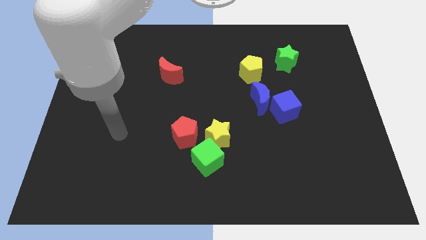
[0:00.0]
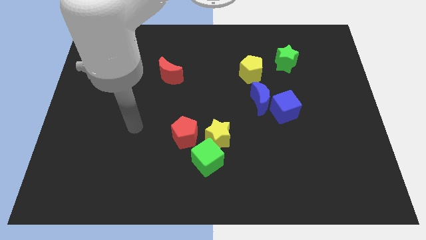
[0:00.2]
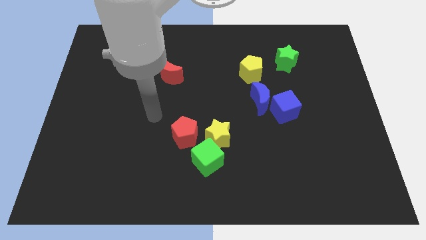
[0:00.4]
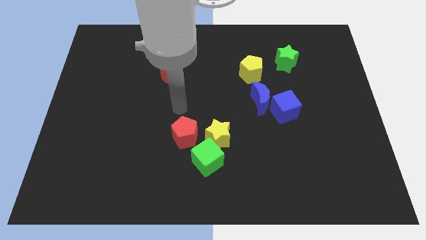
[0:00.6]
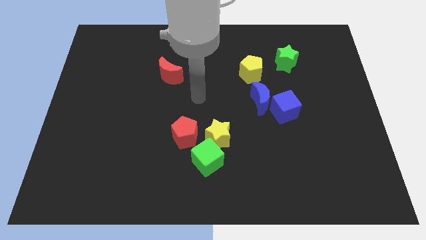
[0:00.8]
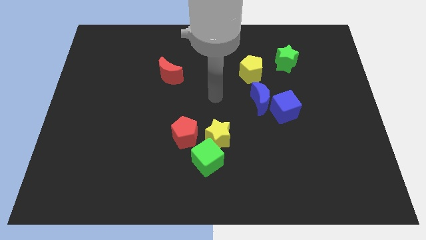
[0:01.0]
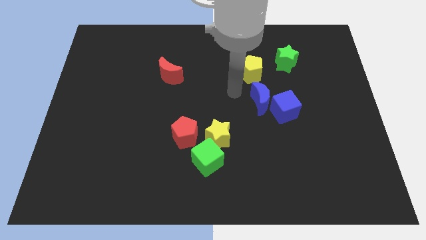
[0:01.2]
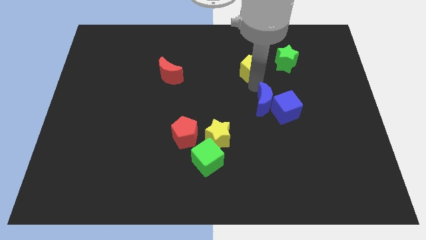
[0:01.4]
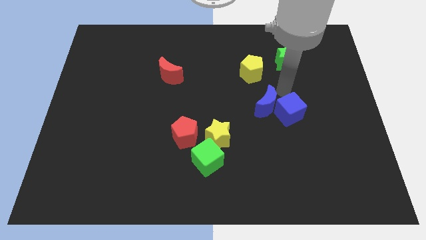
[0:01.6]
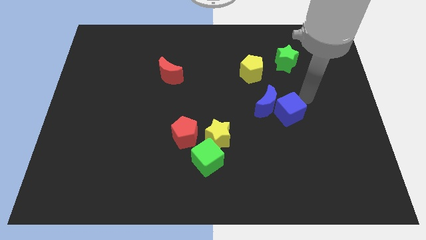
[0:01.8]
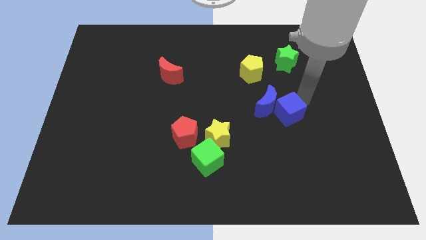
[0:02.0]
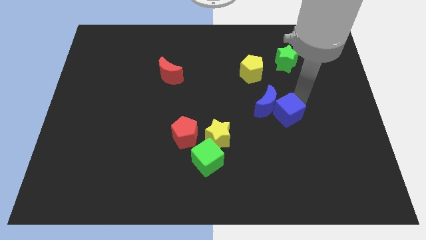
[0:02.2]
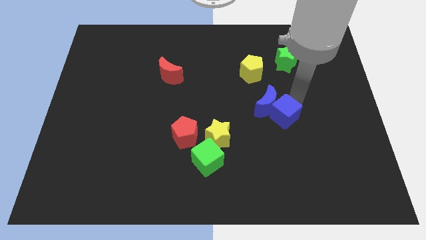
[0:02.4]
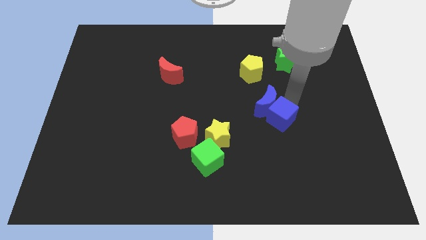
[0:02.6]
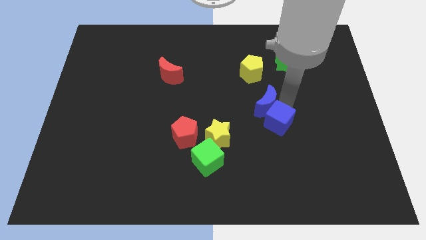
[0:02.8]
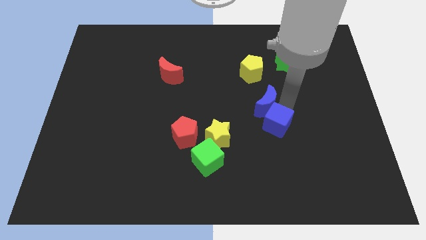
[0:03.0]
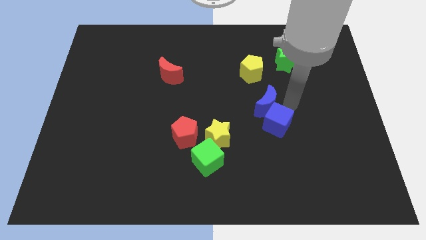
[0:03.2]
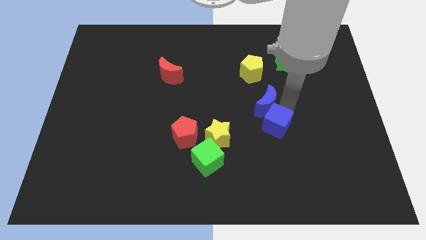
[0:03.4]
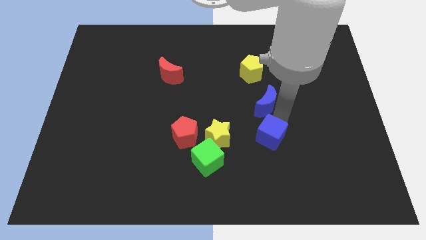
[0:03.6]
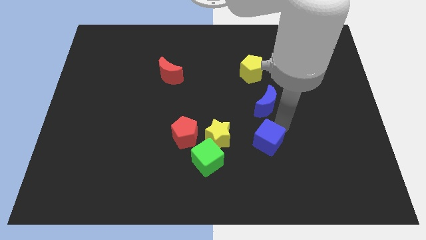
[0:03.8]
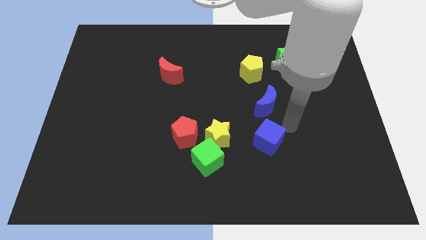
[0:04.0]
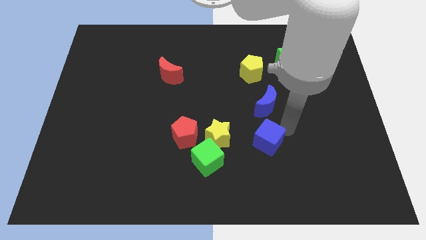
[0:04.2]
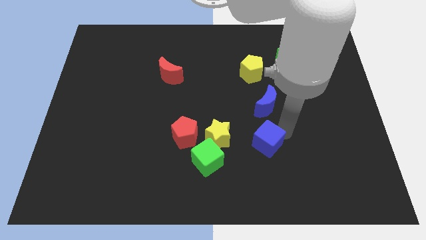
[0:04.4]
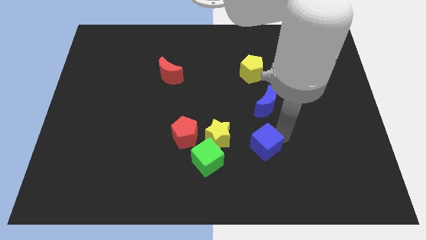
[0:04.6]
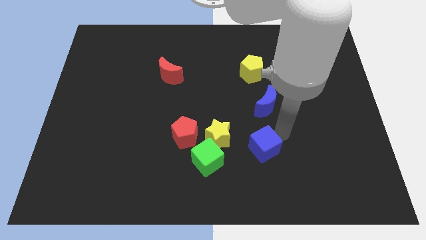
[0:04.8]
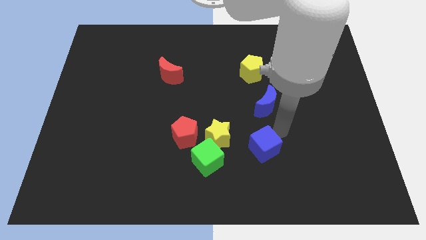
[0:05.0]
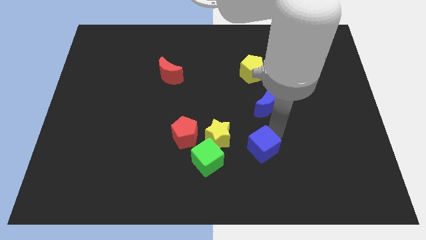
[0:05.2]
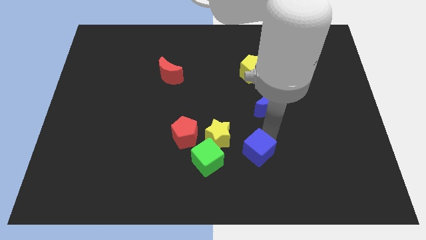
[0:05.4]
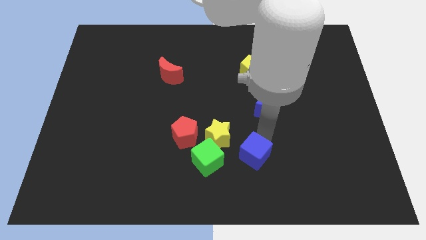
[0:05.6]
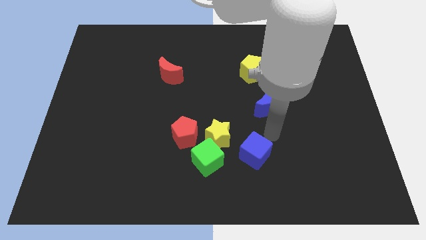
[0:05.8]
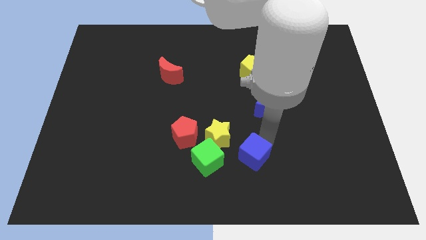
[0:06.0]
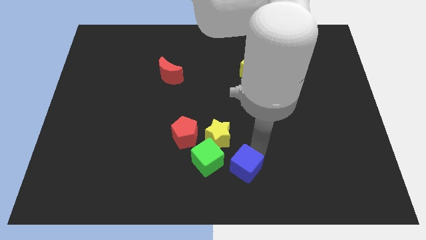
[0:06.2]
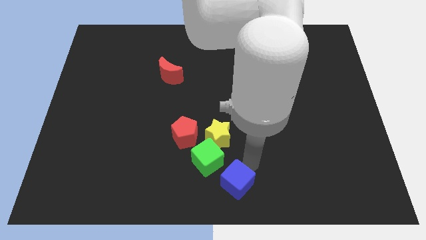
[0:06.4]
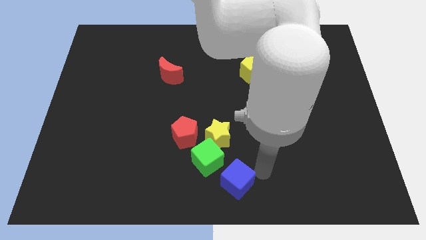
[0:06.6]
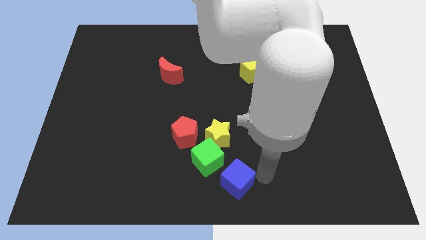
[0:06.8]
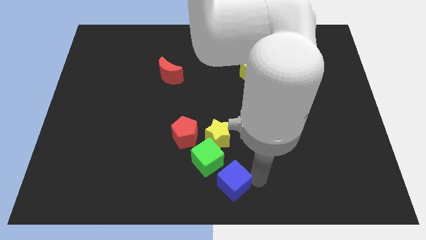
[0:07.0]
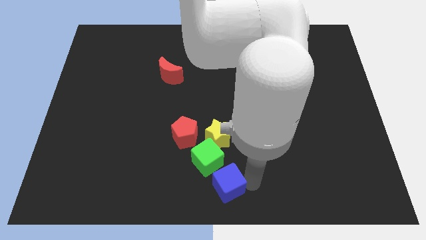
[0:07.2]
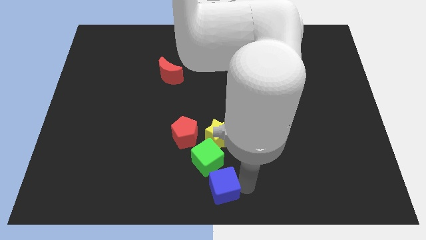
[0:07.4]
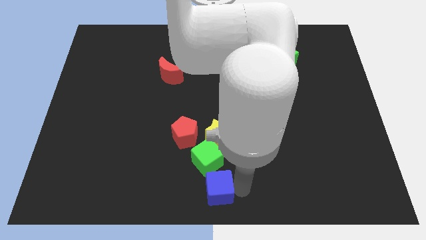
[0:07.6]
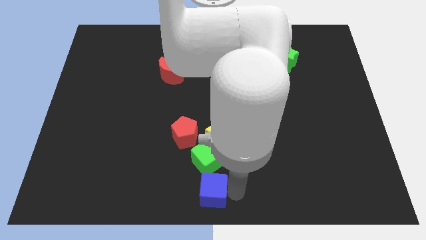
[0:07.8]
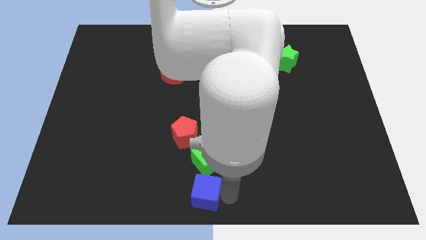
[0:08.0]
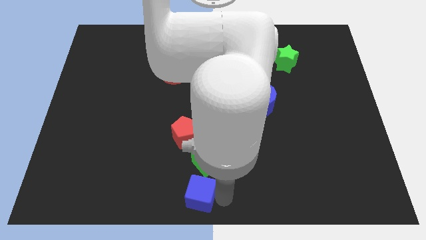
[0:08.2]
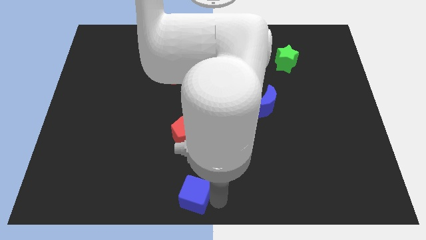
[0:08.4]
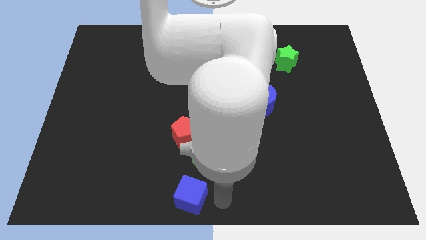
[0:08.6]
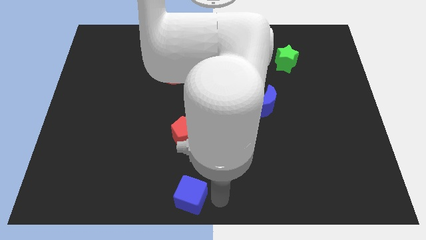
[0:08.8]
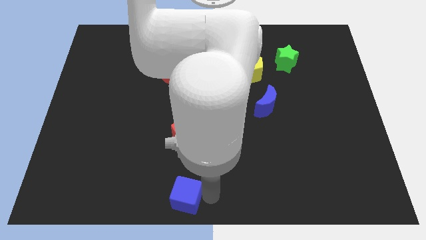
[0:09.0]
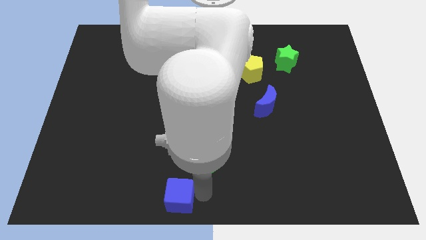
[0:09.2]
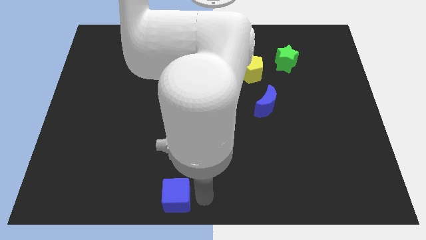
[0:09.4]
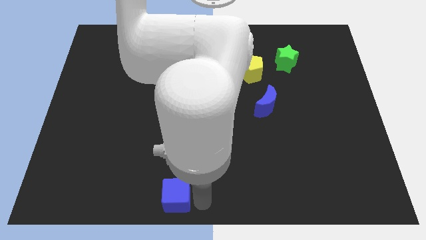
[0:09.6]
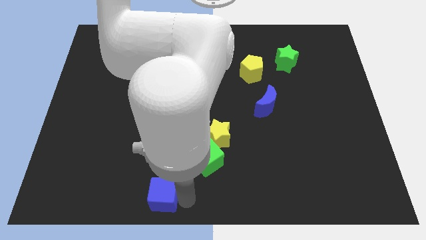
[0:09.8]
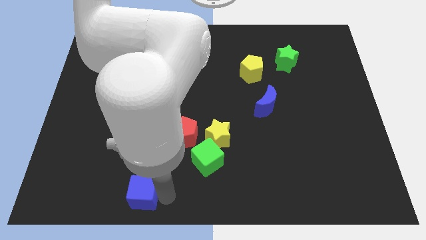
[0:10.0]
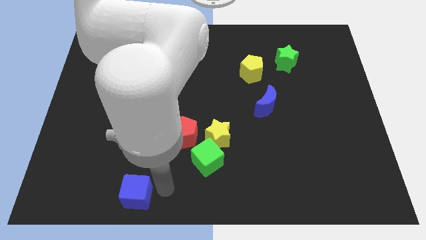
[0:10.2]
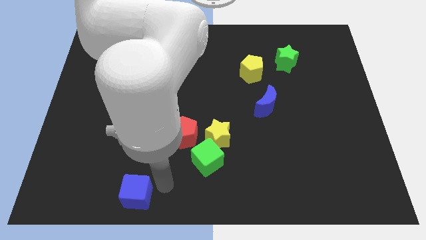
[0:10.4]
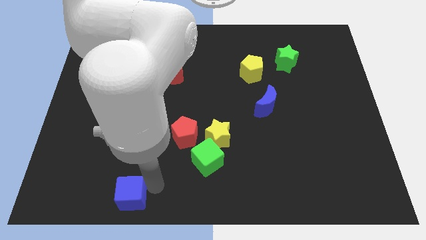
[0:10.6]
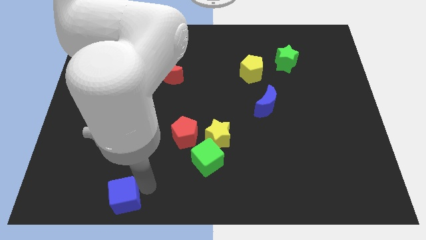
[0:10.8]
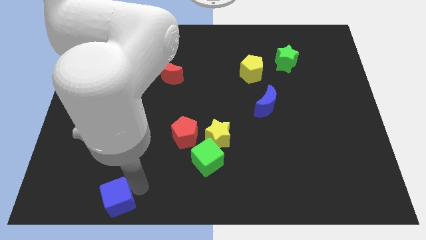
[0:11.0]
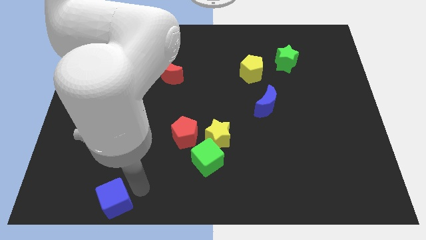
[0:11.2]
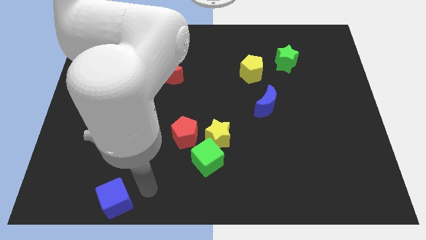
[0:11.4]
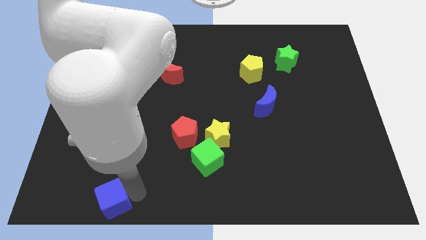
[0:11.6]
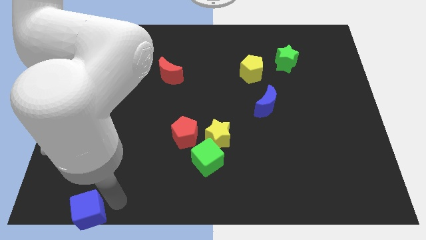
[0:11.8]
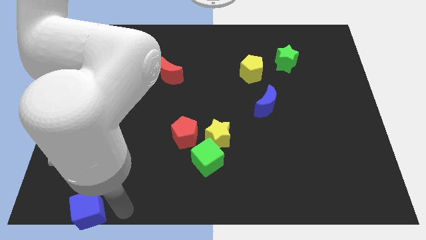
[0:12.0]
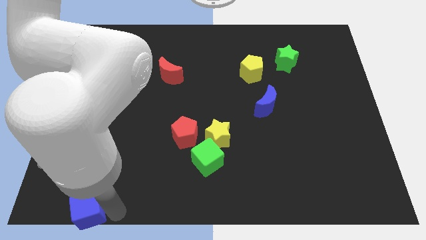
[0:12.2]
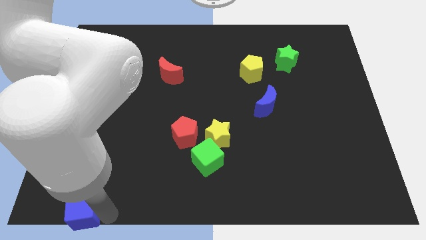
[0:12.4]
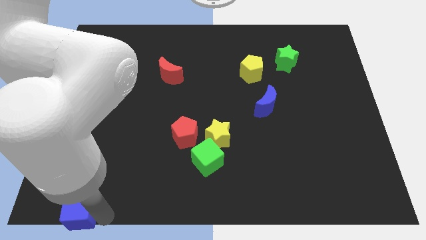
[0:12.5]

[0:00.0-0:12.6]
slide the blue cube to the bottom left corner

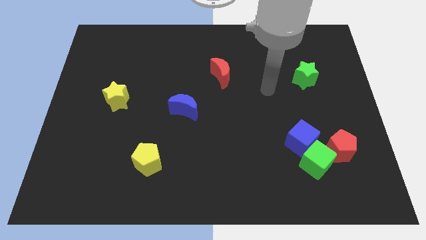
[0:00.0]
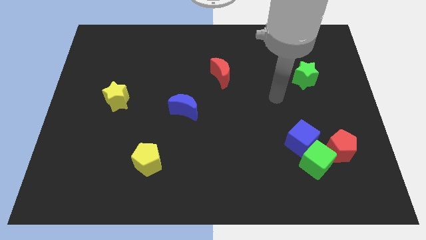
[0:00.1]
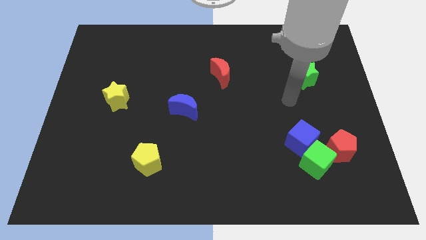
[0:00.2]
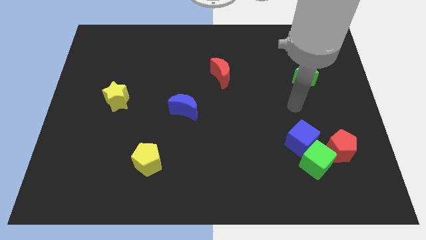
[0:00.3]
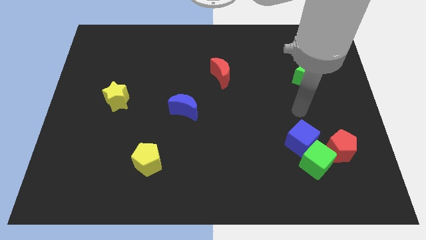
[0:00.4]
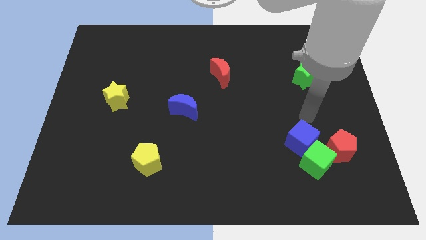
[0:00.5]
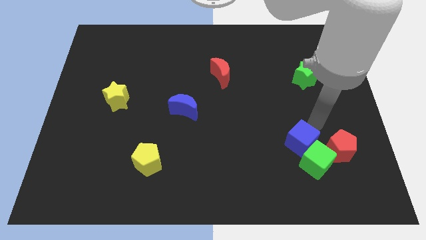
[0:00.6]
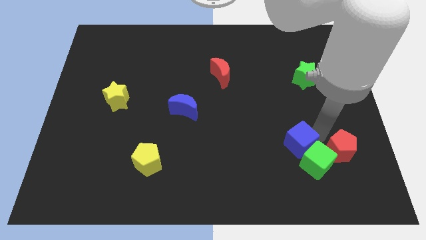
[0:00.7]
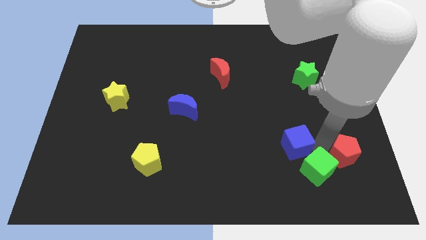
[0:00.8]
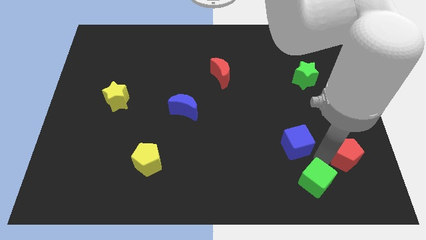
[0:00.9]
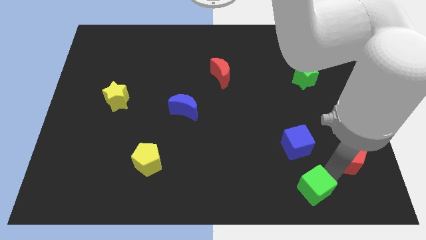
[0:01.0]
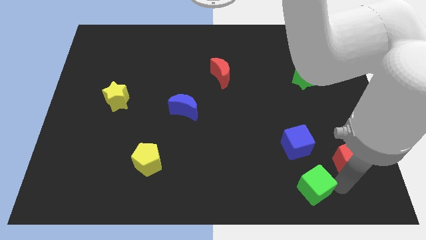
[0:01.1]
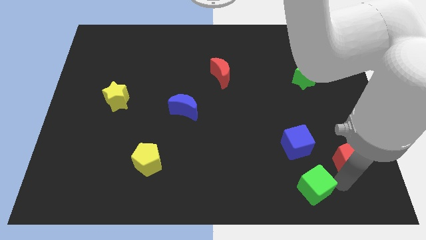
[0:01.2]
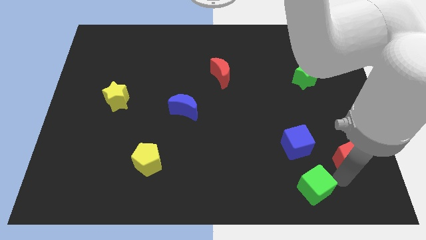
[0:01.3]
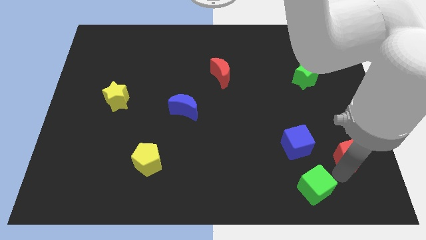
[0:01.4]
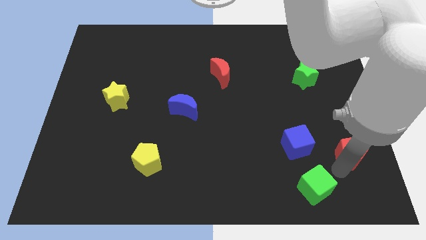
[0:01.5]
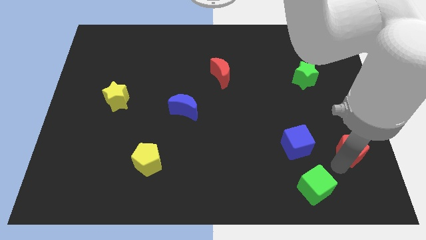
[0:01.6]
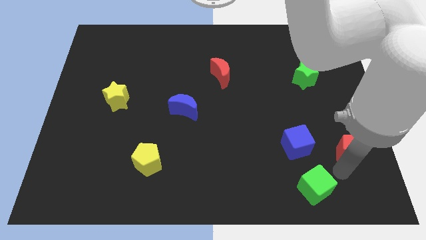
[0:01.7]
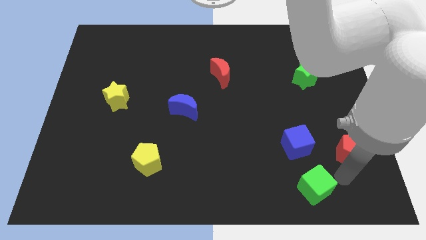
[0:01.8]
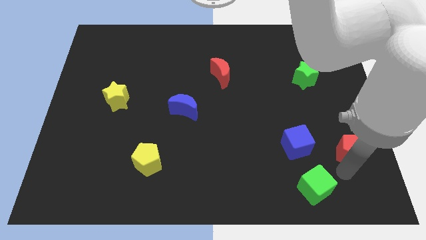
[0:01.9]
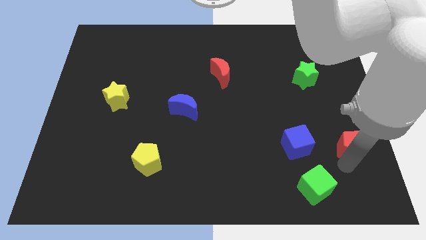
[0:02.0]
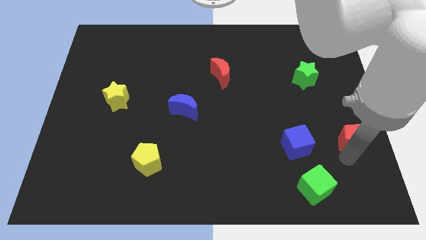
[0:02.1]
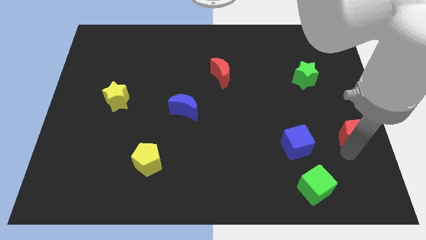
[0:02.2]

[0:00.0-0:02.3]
slide the red pentagon to the center right
